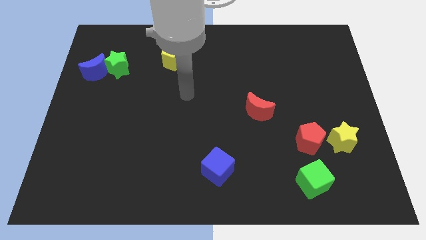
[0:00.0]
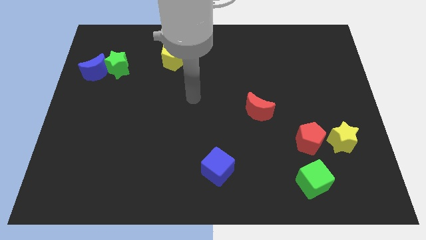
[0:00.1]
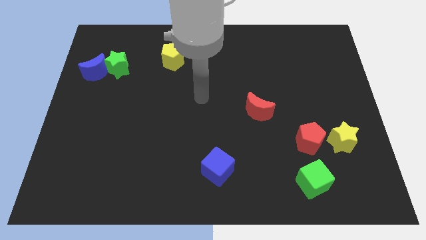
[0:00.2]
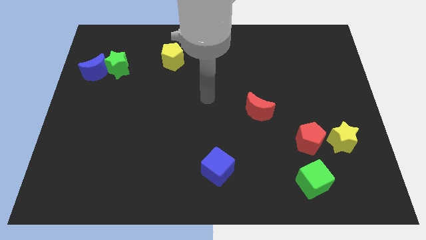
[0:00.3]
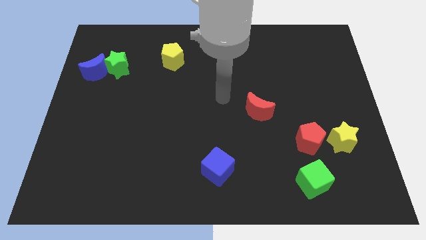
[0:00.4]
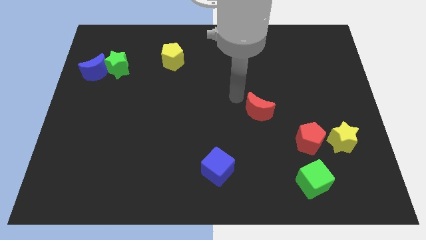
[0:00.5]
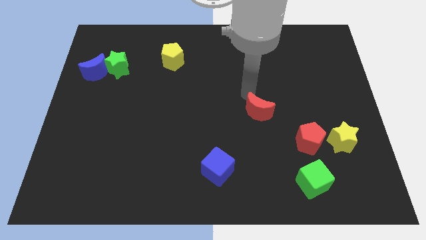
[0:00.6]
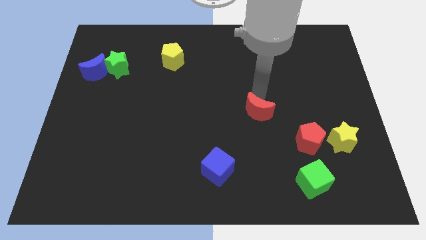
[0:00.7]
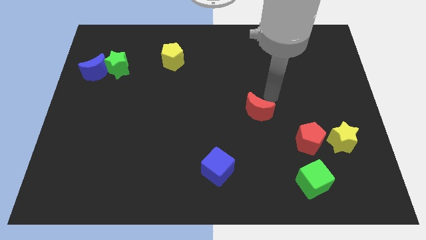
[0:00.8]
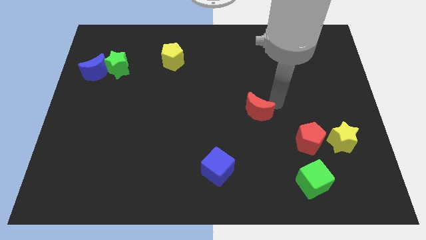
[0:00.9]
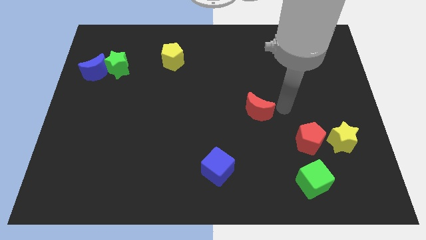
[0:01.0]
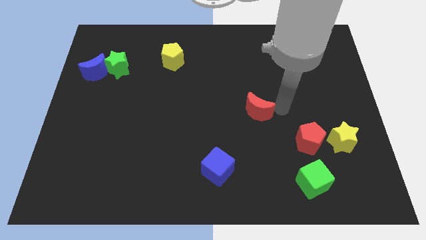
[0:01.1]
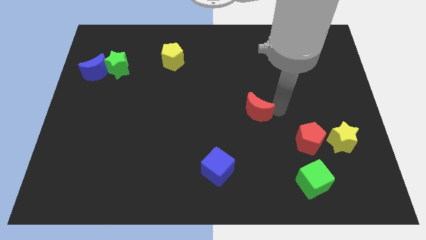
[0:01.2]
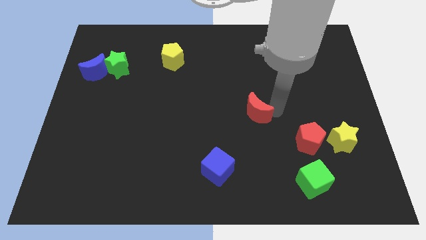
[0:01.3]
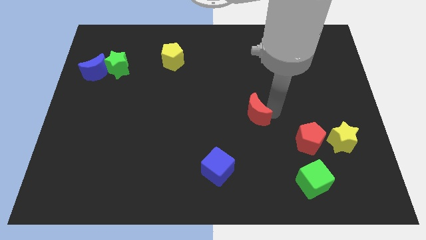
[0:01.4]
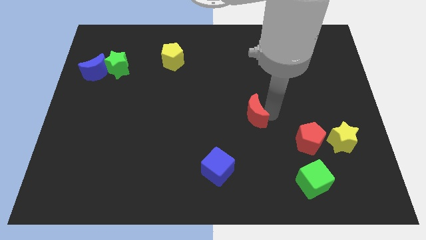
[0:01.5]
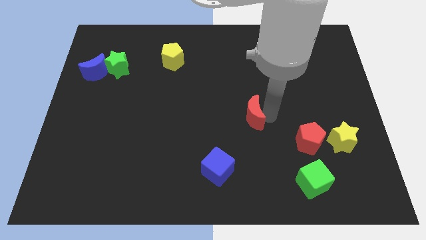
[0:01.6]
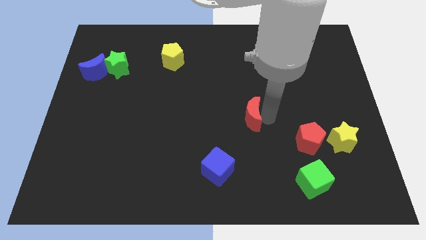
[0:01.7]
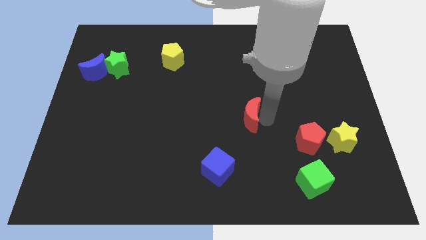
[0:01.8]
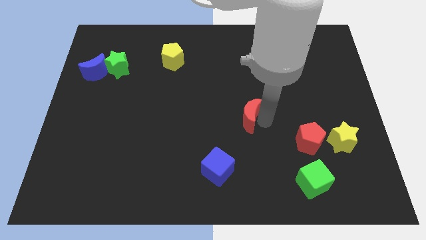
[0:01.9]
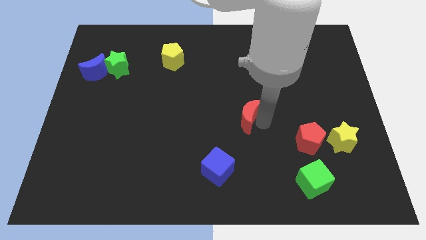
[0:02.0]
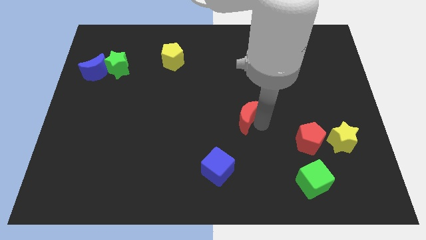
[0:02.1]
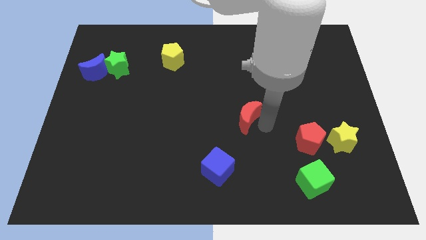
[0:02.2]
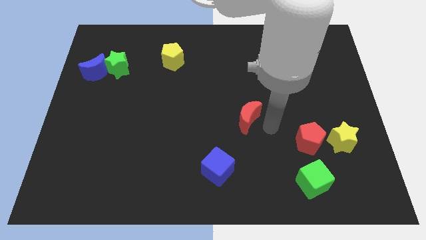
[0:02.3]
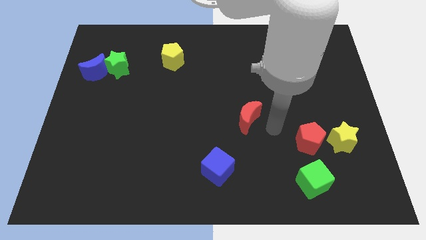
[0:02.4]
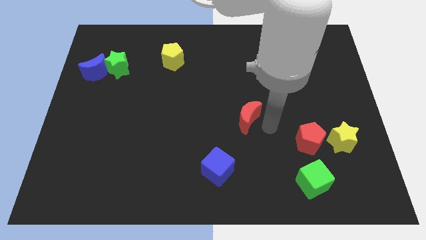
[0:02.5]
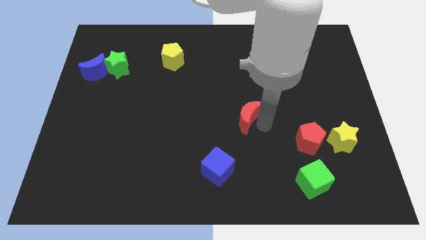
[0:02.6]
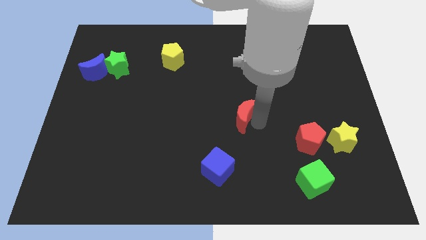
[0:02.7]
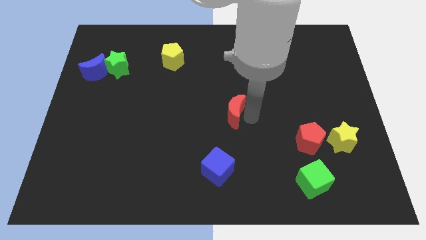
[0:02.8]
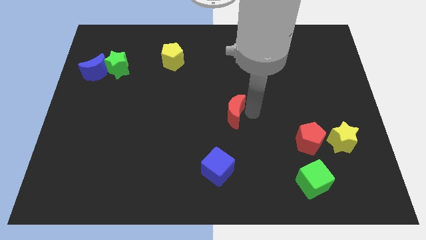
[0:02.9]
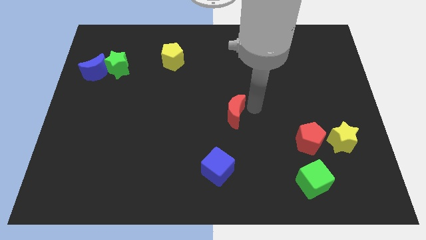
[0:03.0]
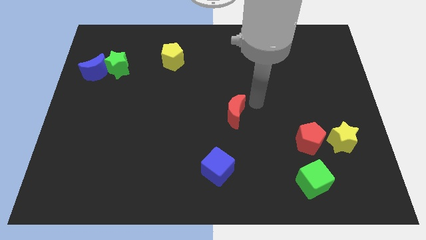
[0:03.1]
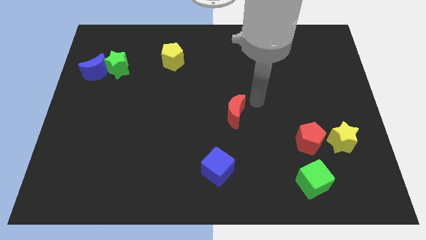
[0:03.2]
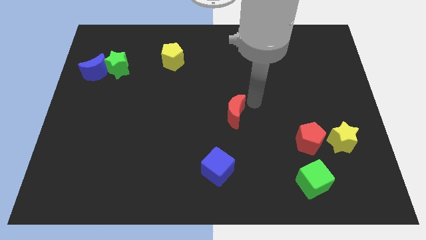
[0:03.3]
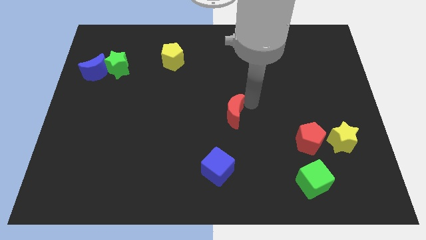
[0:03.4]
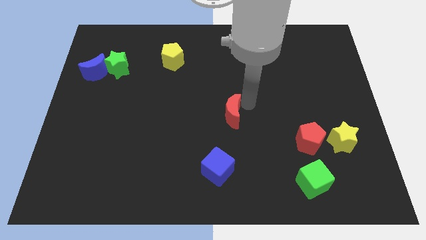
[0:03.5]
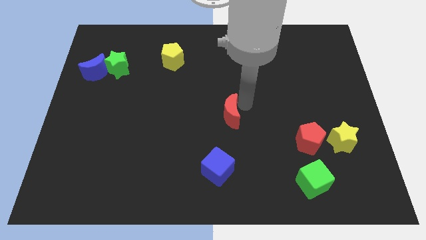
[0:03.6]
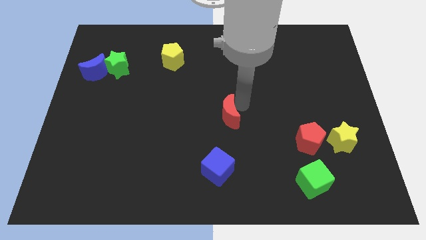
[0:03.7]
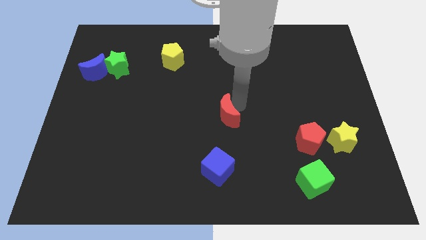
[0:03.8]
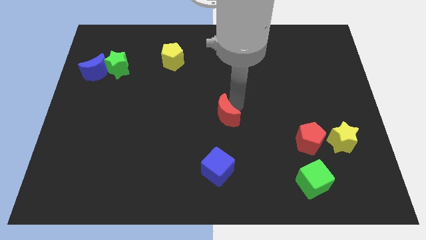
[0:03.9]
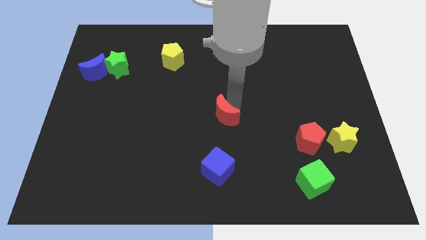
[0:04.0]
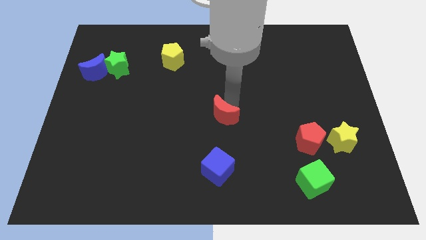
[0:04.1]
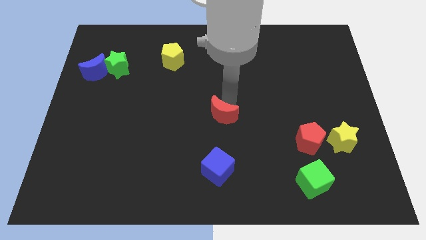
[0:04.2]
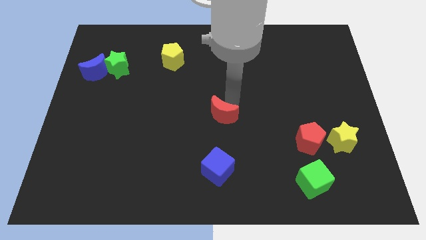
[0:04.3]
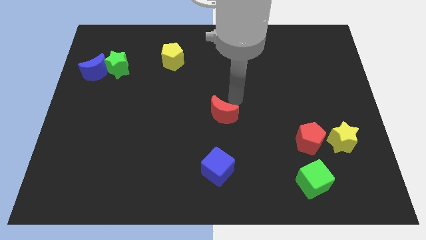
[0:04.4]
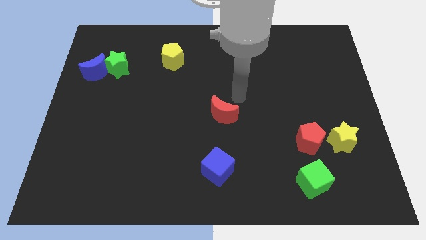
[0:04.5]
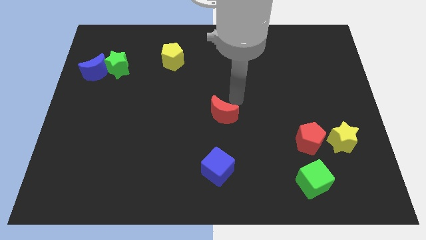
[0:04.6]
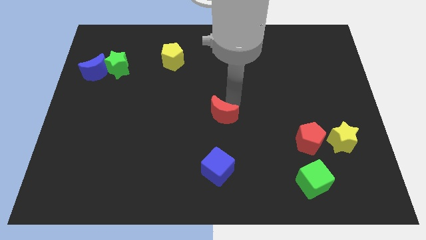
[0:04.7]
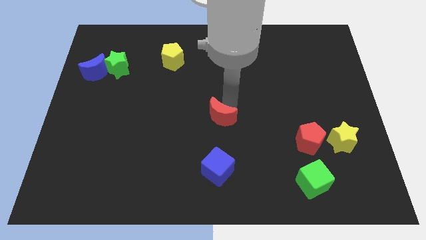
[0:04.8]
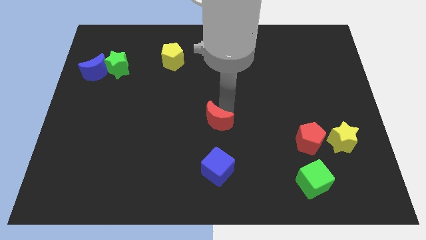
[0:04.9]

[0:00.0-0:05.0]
slide the red moon a little downwards and left diagonally

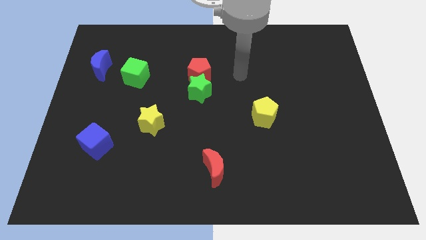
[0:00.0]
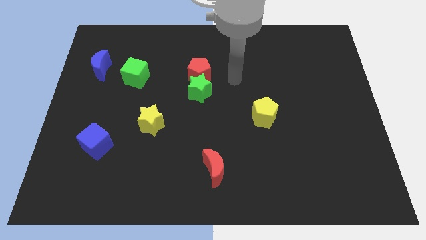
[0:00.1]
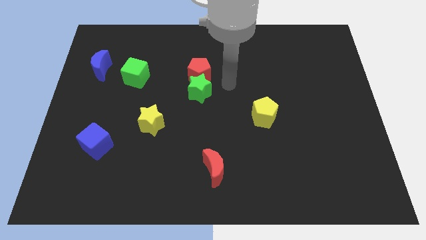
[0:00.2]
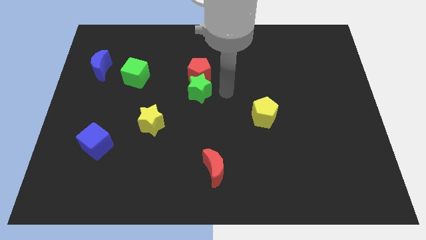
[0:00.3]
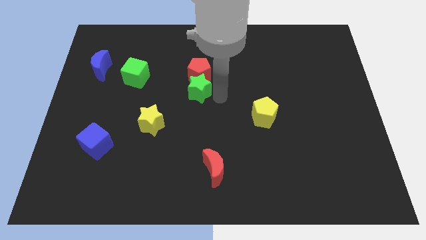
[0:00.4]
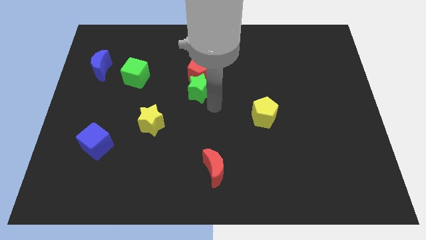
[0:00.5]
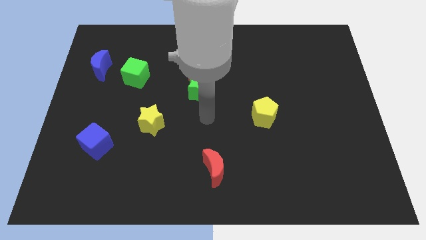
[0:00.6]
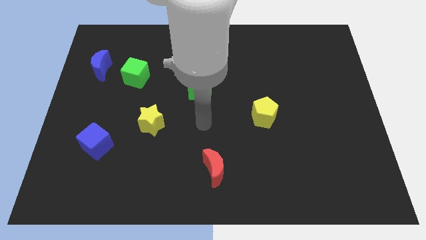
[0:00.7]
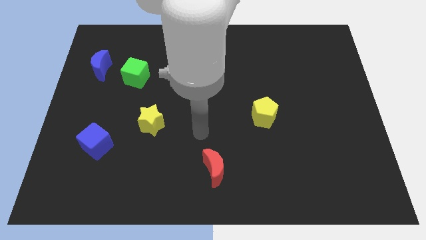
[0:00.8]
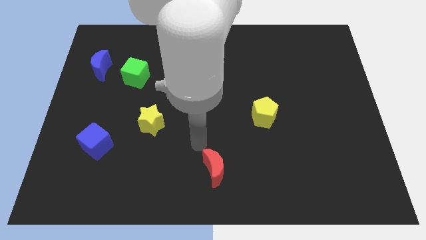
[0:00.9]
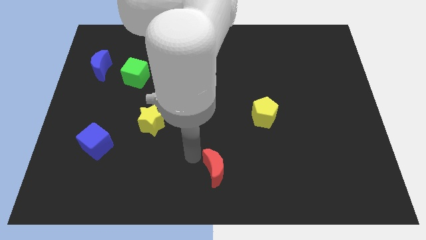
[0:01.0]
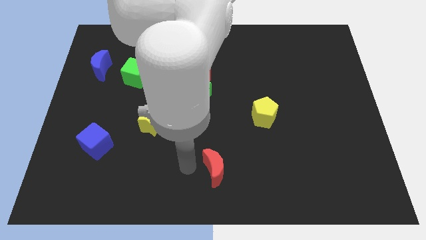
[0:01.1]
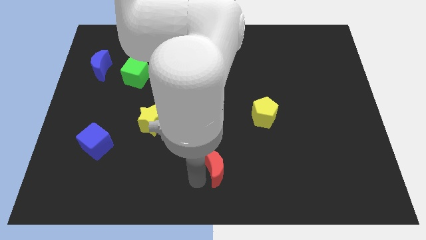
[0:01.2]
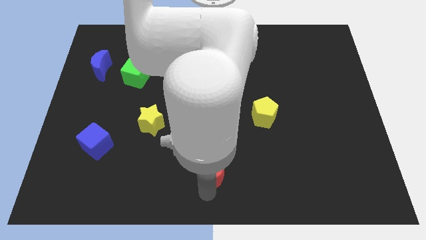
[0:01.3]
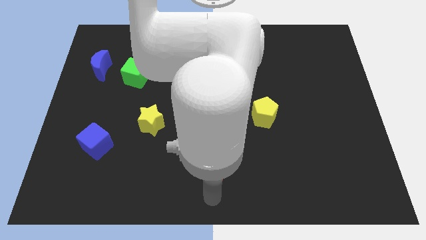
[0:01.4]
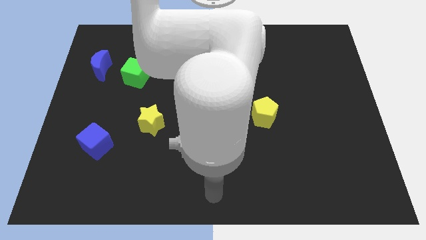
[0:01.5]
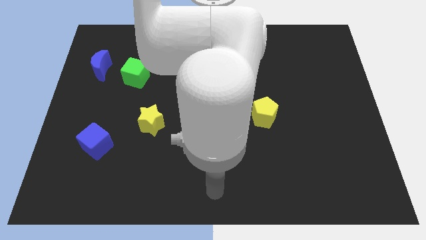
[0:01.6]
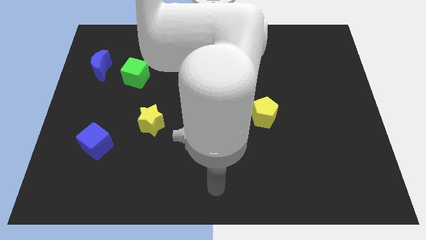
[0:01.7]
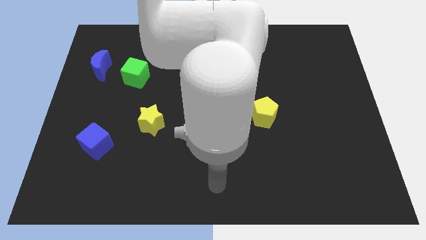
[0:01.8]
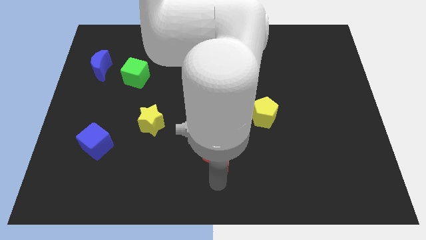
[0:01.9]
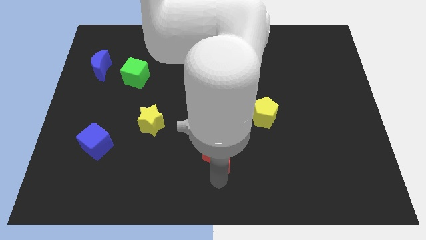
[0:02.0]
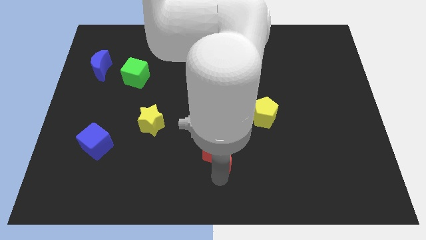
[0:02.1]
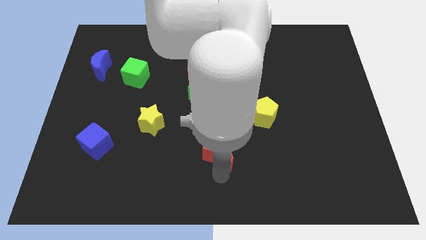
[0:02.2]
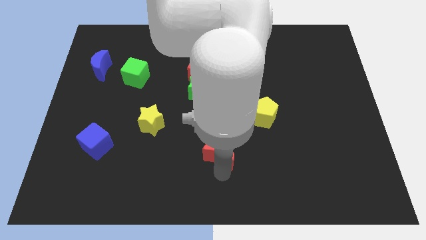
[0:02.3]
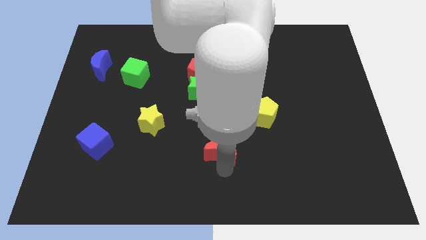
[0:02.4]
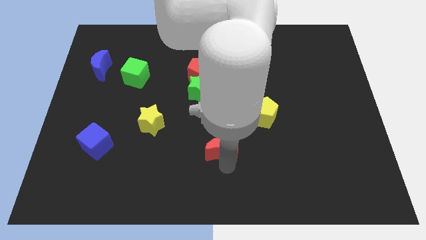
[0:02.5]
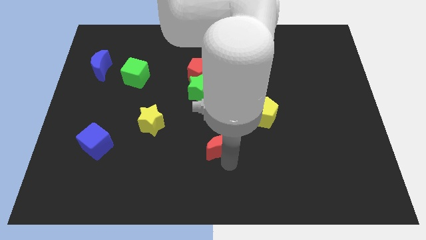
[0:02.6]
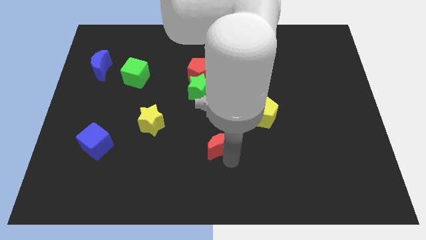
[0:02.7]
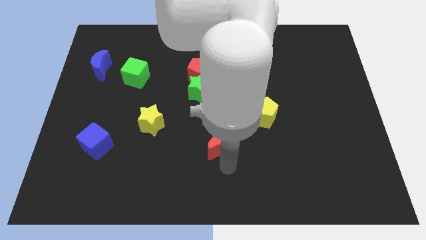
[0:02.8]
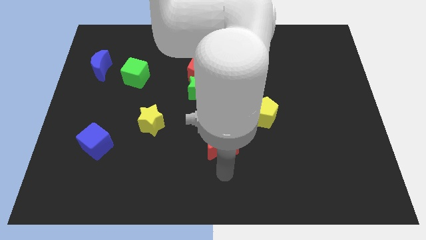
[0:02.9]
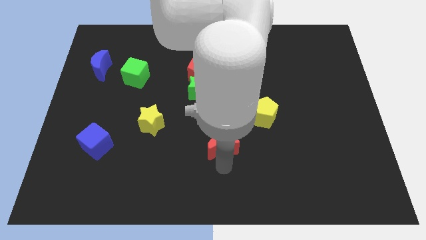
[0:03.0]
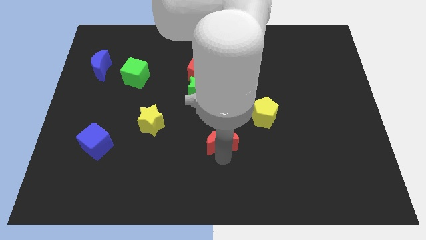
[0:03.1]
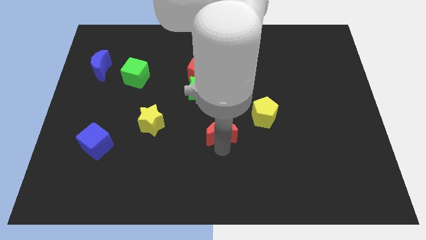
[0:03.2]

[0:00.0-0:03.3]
push the red moon somewhat upwards
